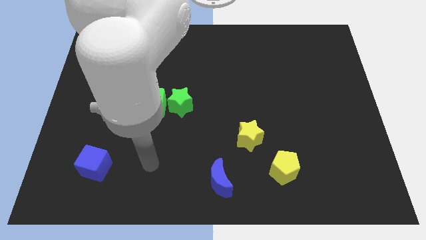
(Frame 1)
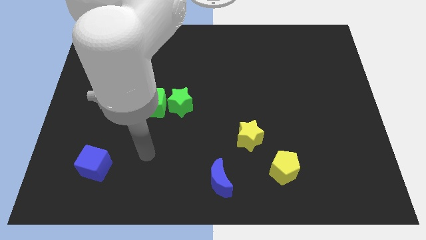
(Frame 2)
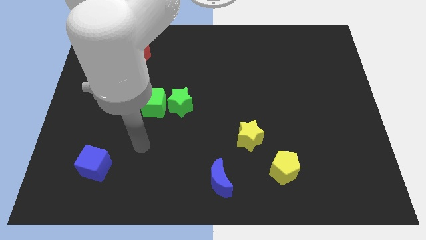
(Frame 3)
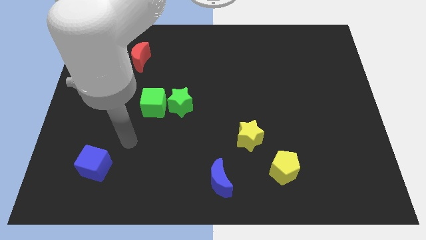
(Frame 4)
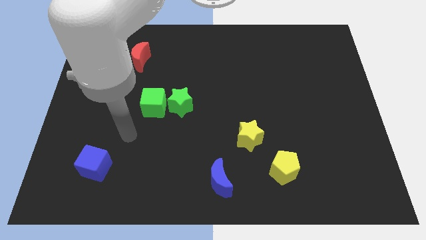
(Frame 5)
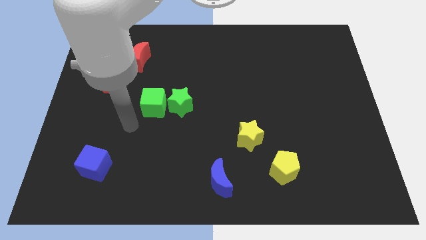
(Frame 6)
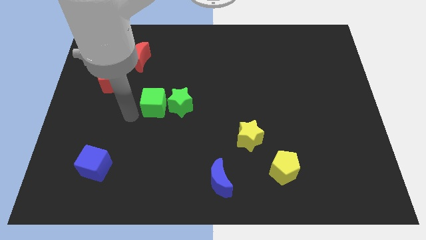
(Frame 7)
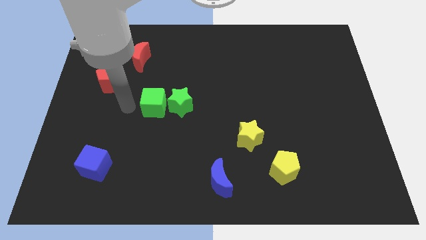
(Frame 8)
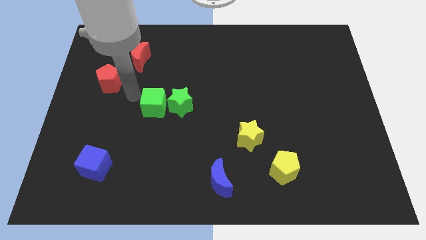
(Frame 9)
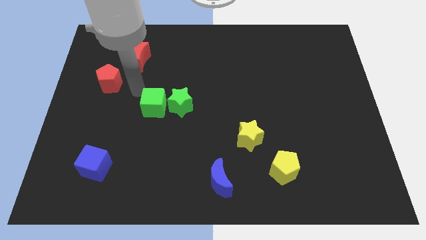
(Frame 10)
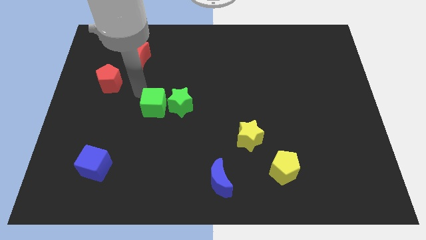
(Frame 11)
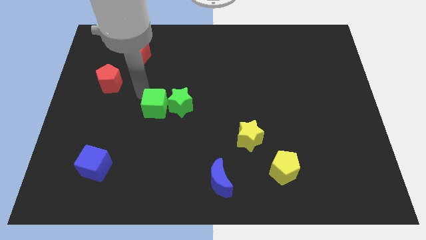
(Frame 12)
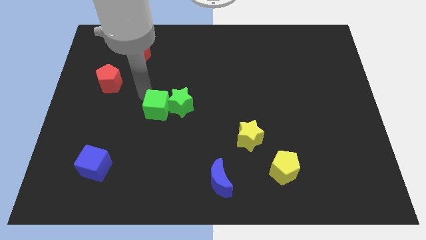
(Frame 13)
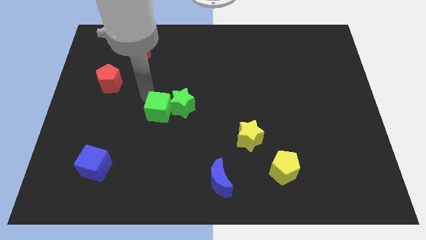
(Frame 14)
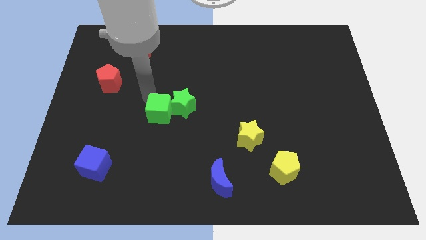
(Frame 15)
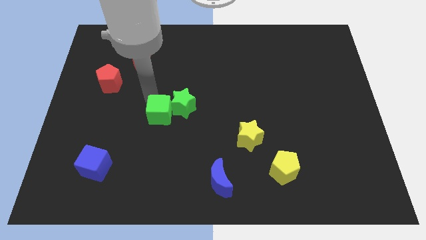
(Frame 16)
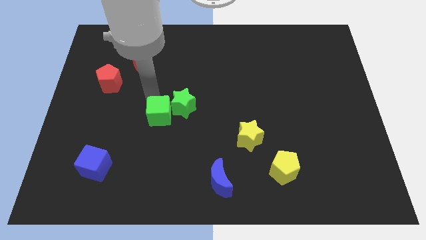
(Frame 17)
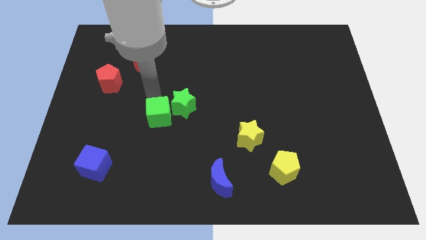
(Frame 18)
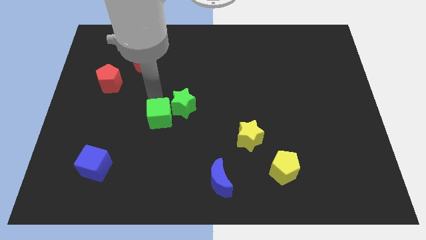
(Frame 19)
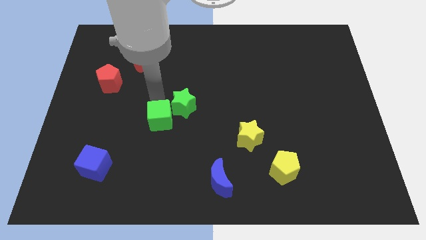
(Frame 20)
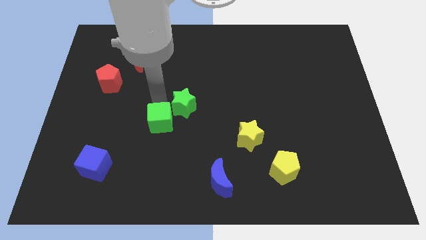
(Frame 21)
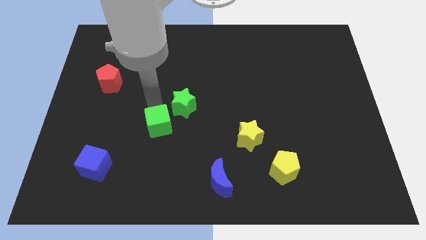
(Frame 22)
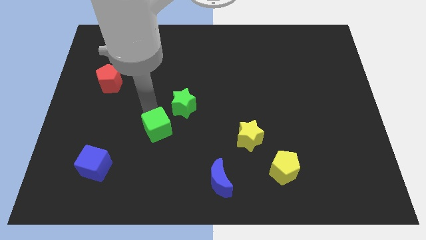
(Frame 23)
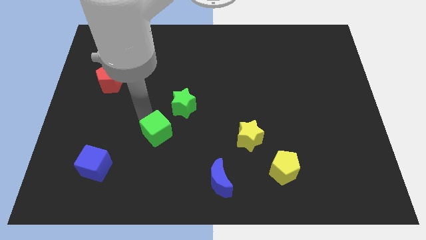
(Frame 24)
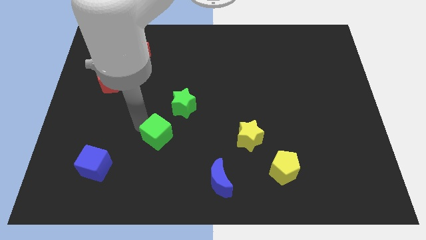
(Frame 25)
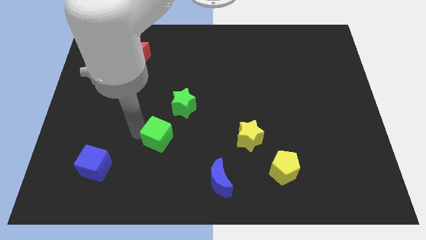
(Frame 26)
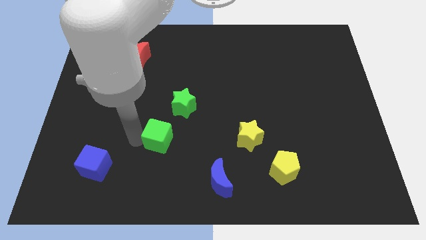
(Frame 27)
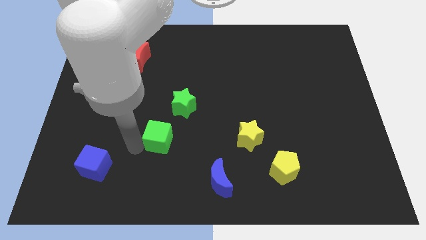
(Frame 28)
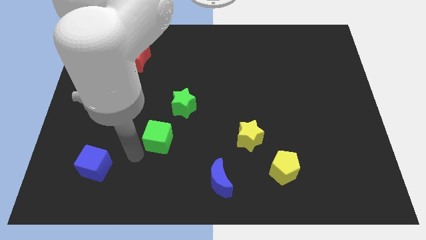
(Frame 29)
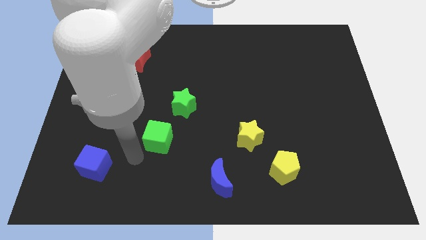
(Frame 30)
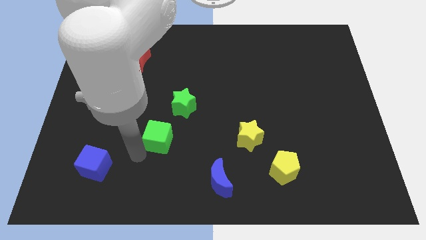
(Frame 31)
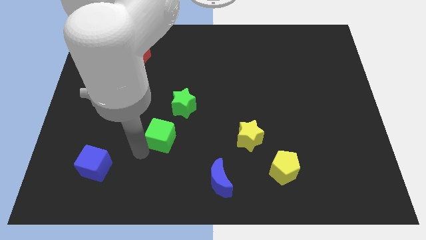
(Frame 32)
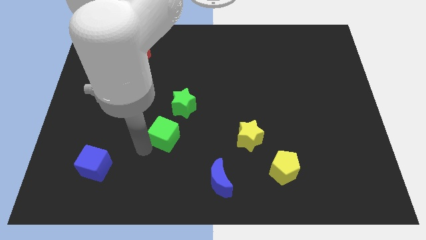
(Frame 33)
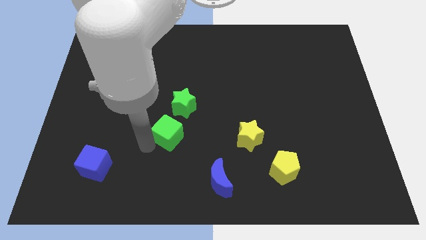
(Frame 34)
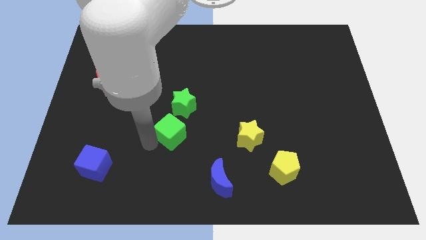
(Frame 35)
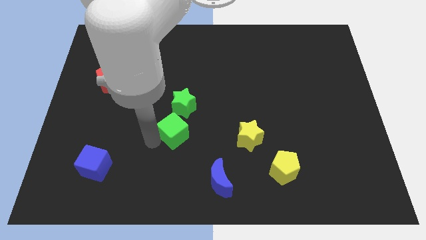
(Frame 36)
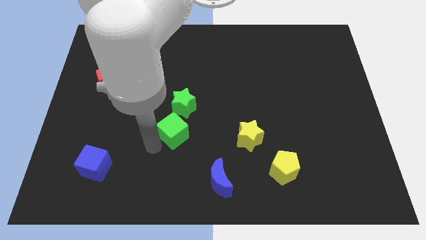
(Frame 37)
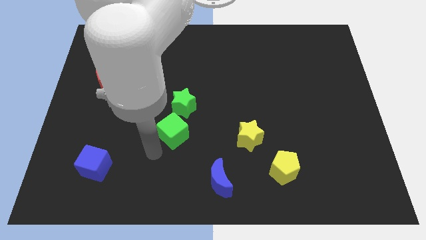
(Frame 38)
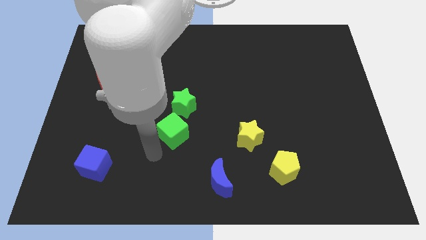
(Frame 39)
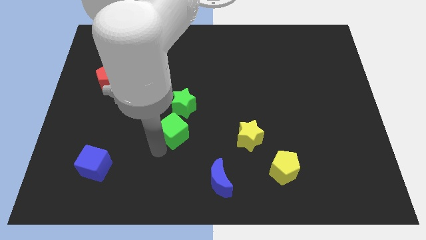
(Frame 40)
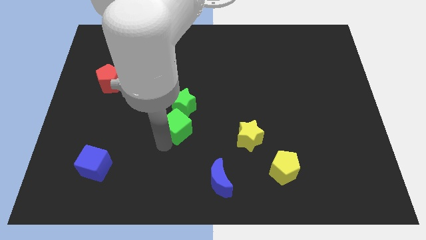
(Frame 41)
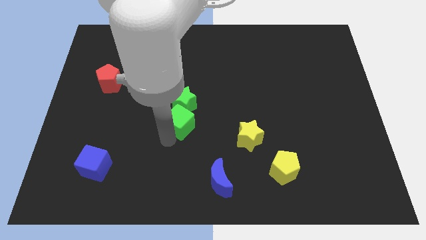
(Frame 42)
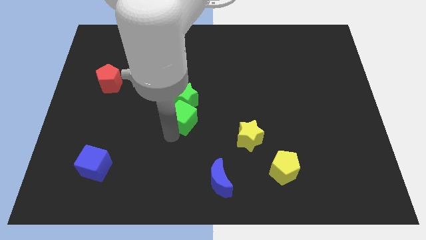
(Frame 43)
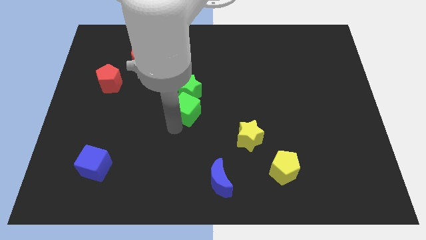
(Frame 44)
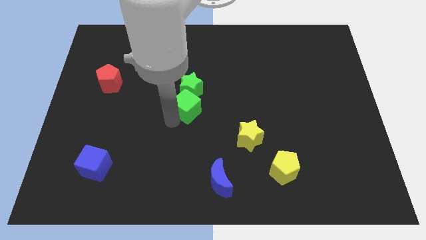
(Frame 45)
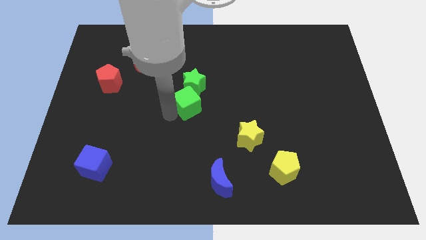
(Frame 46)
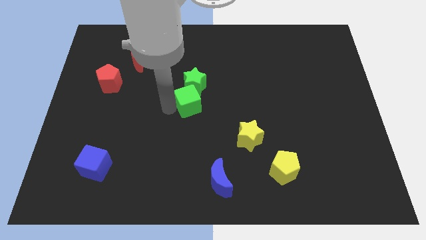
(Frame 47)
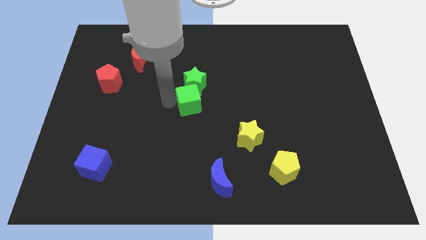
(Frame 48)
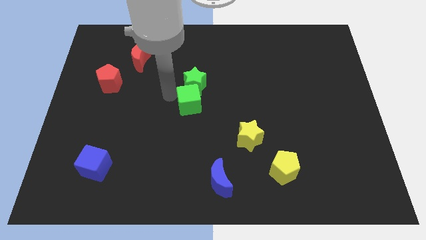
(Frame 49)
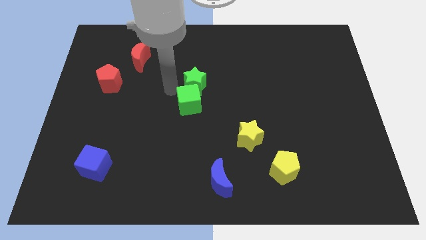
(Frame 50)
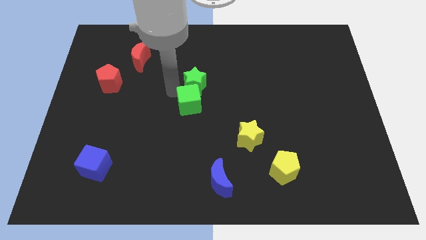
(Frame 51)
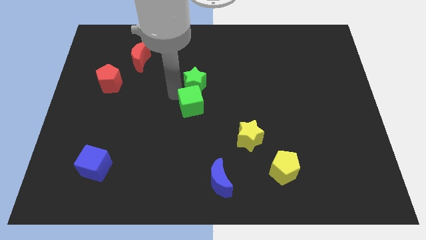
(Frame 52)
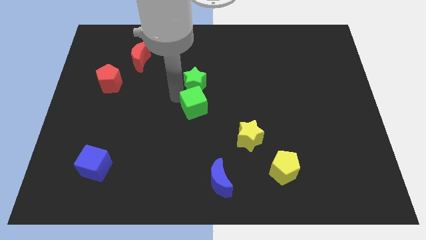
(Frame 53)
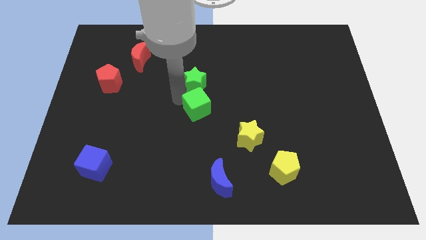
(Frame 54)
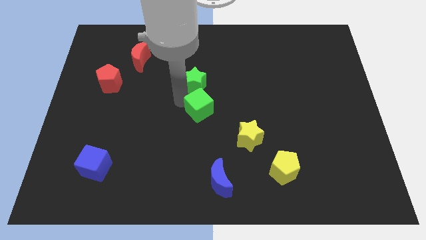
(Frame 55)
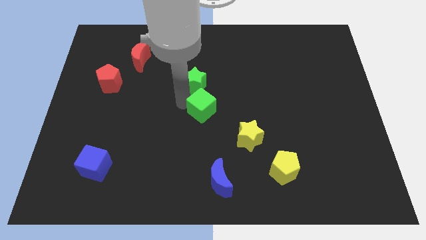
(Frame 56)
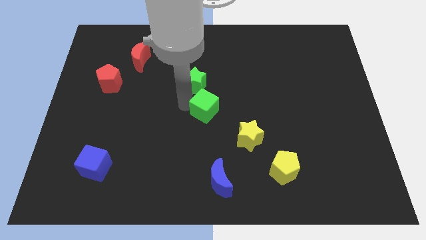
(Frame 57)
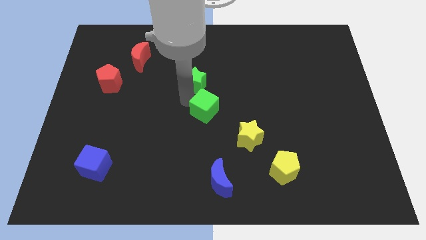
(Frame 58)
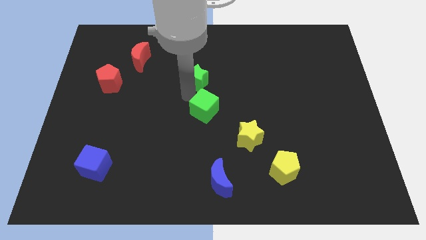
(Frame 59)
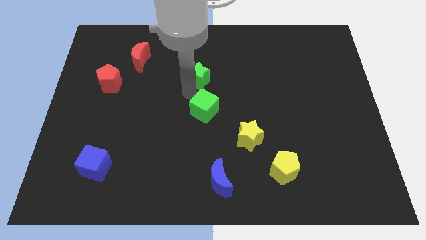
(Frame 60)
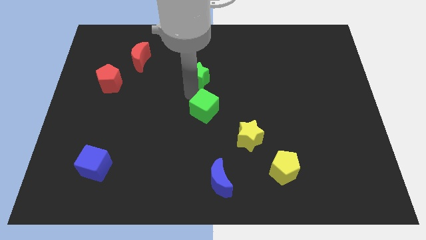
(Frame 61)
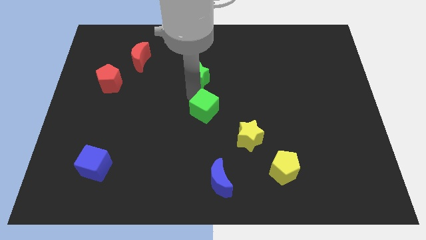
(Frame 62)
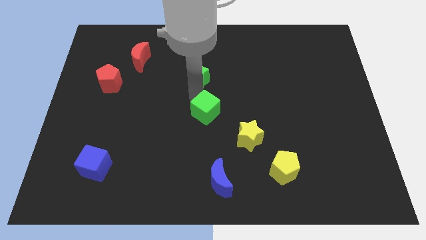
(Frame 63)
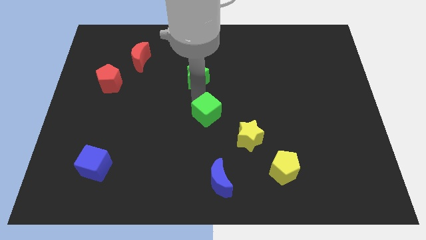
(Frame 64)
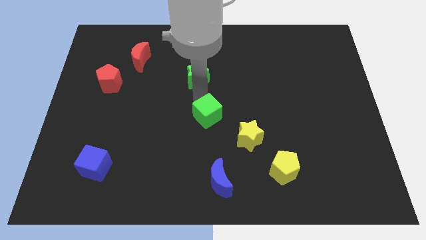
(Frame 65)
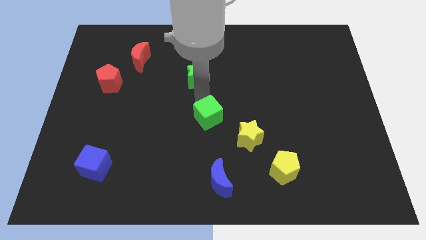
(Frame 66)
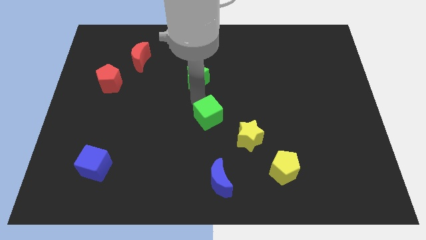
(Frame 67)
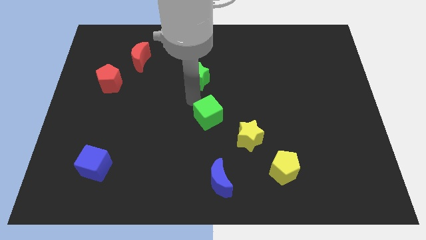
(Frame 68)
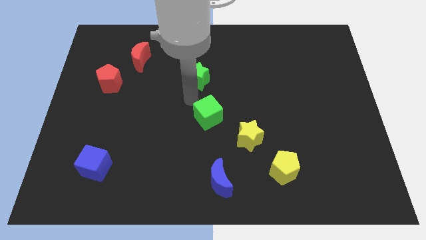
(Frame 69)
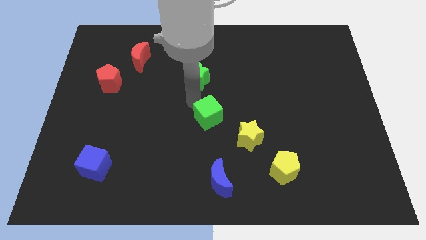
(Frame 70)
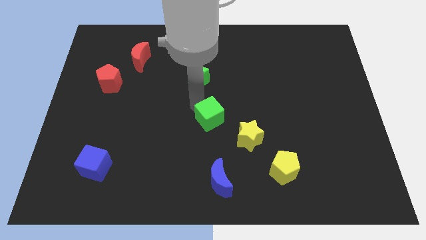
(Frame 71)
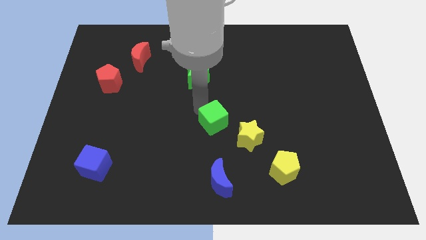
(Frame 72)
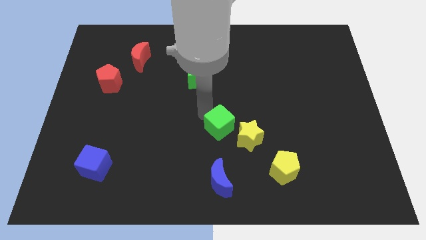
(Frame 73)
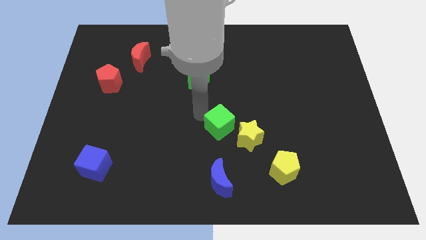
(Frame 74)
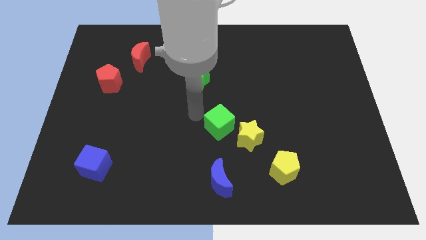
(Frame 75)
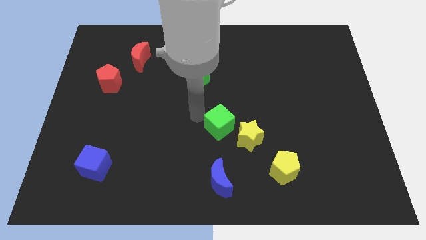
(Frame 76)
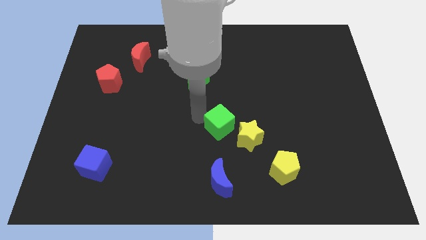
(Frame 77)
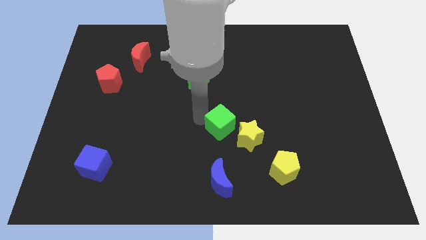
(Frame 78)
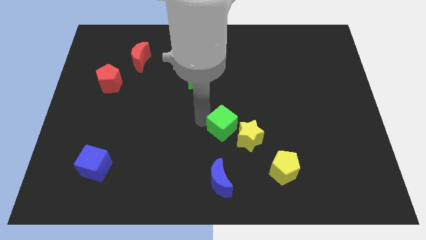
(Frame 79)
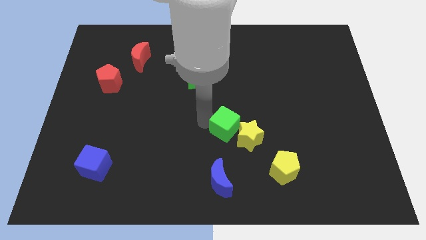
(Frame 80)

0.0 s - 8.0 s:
put the green cube towards the yellow star
